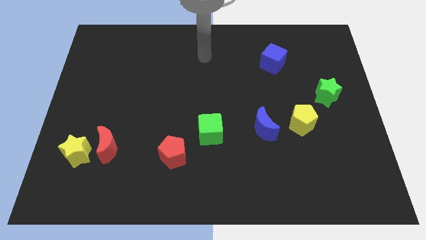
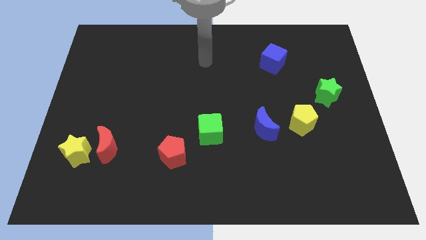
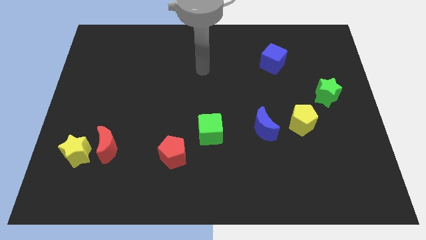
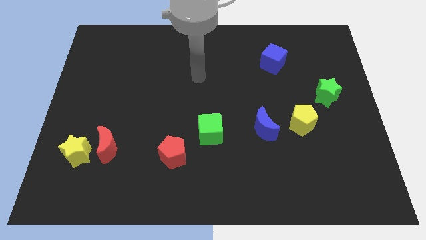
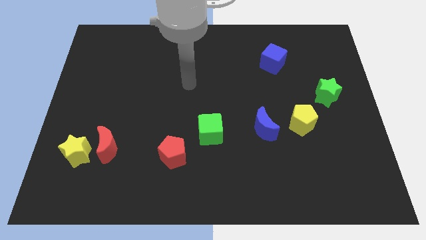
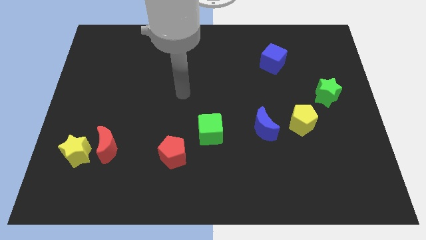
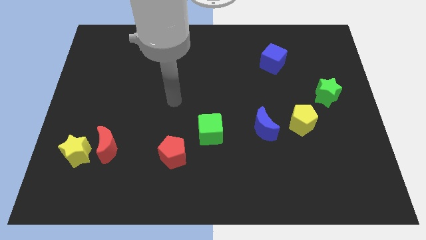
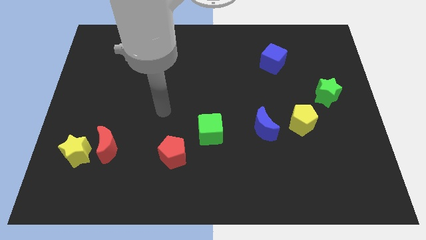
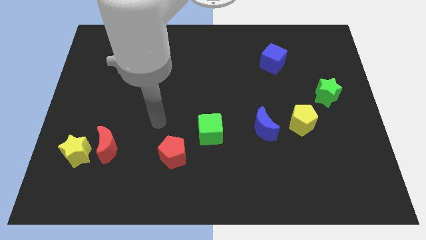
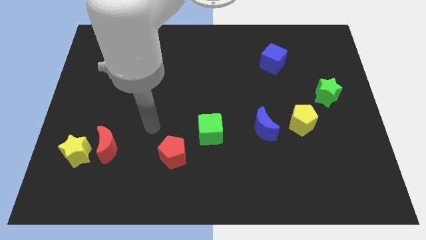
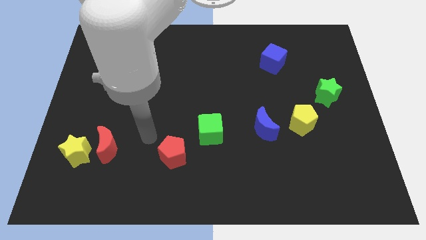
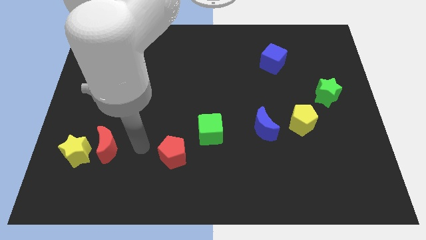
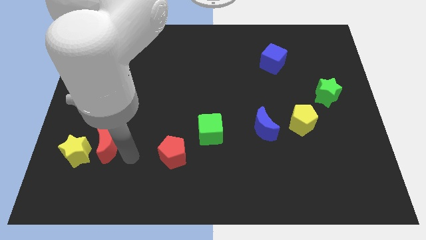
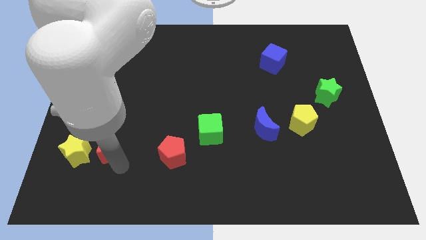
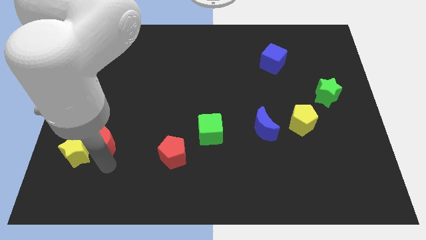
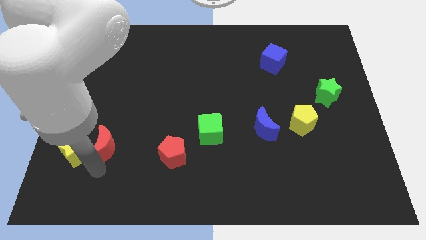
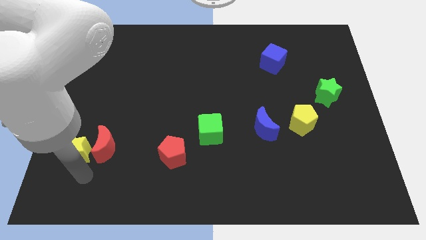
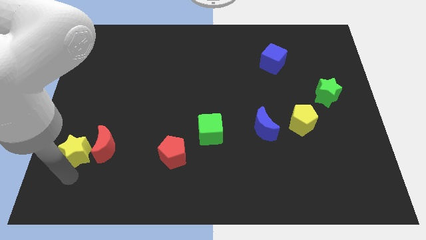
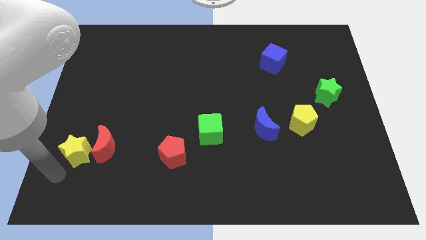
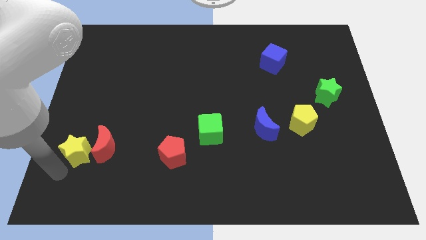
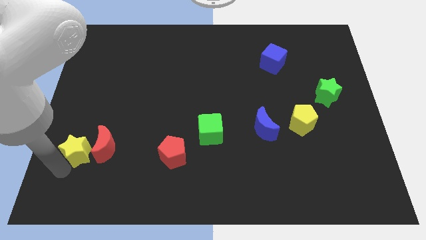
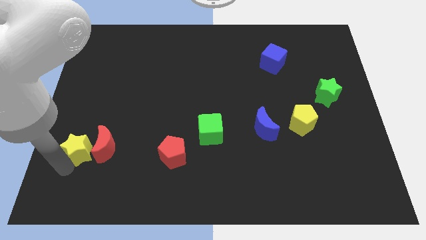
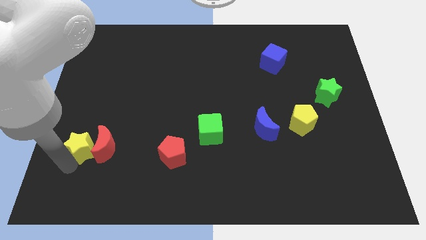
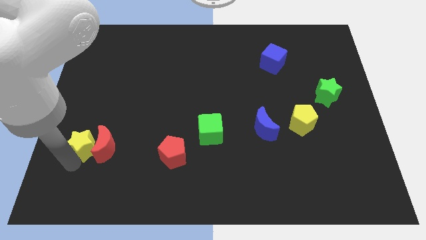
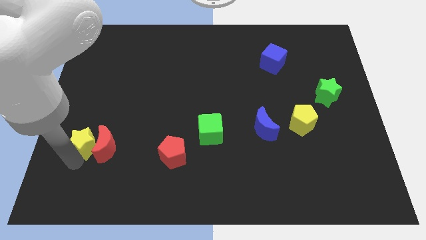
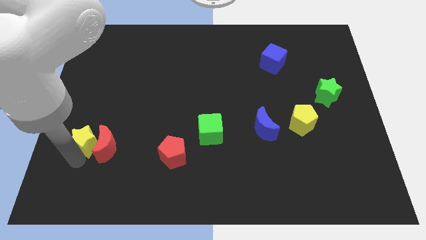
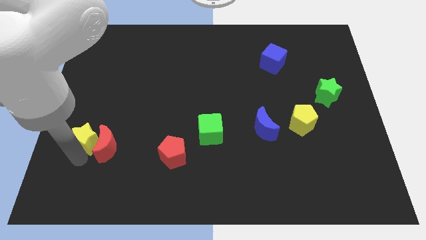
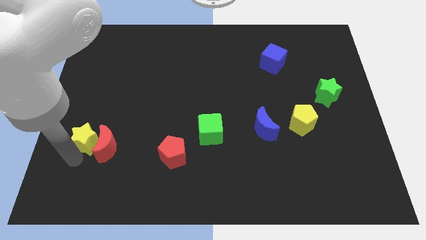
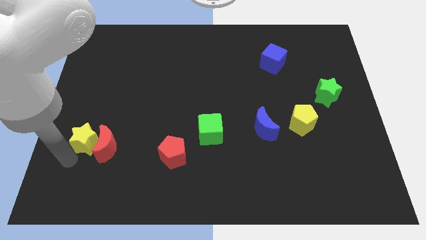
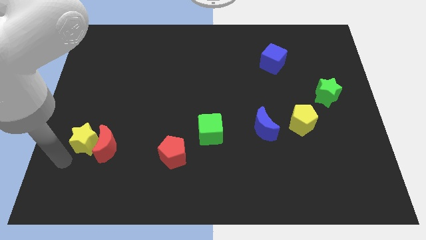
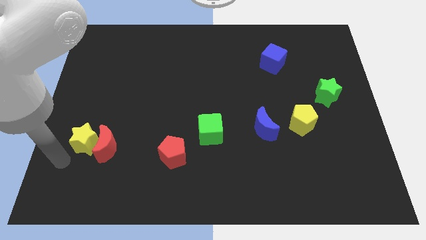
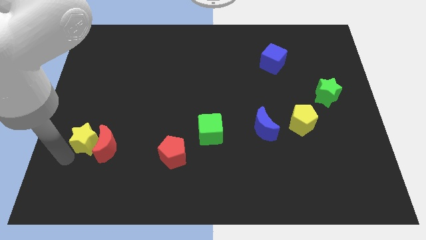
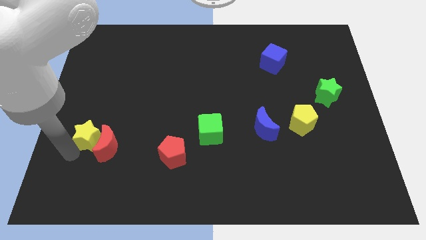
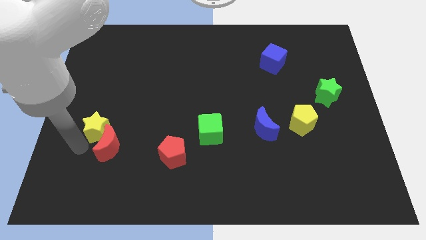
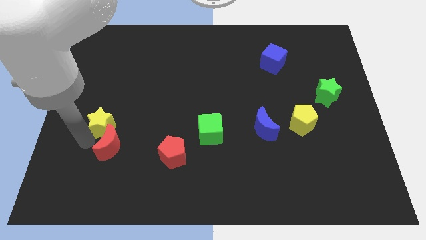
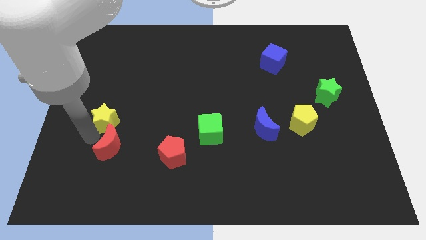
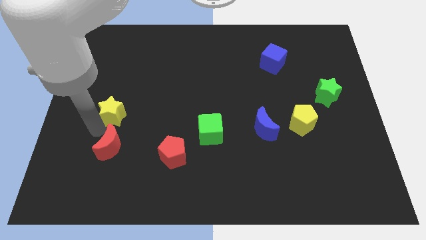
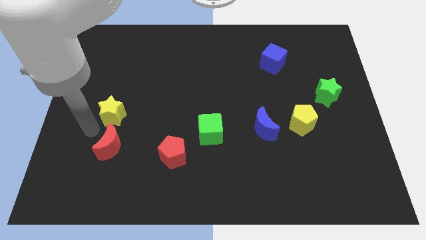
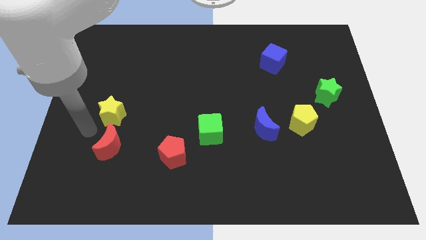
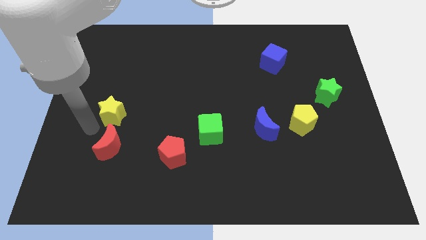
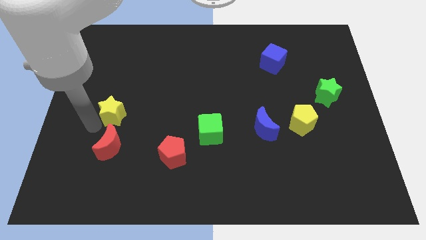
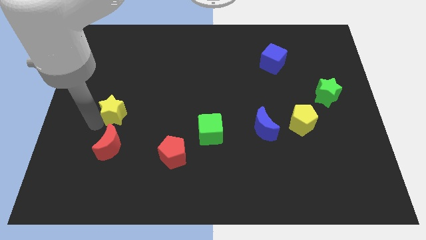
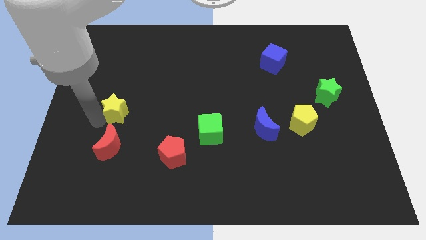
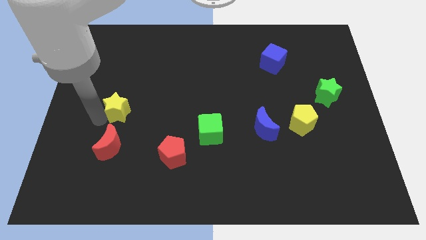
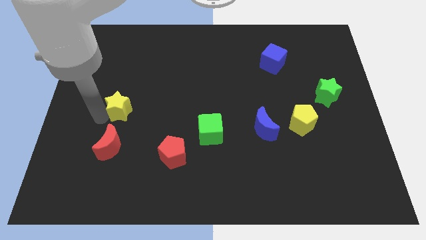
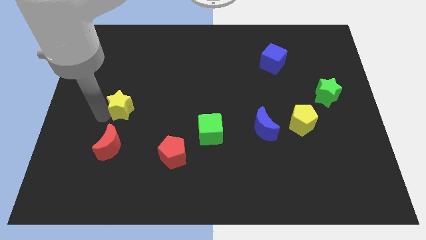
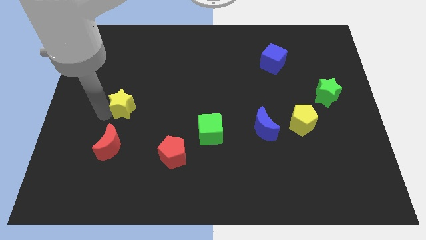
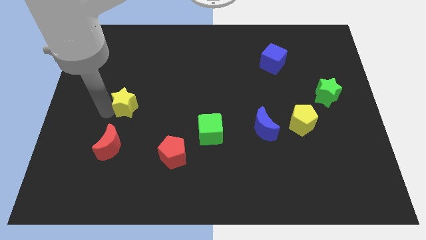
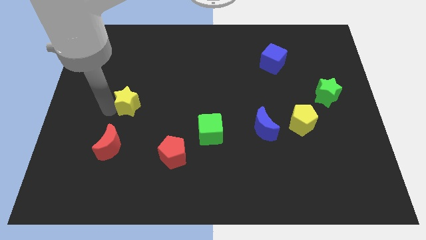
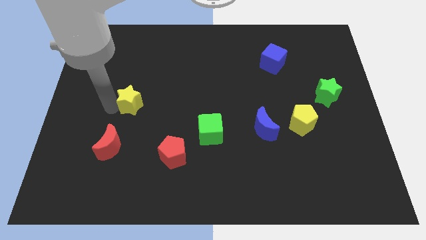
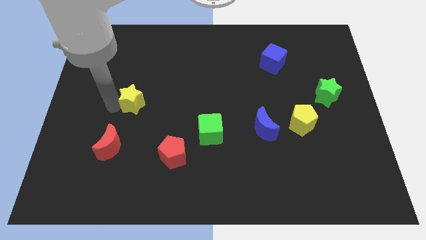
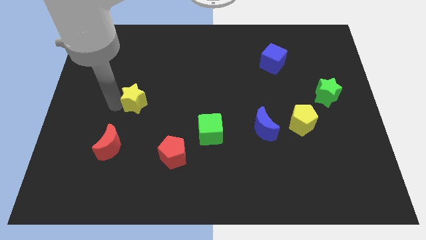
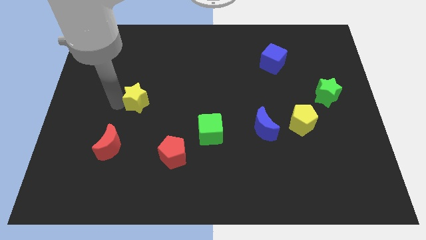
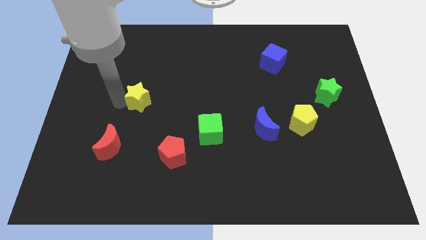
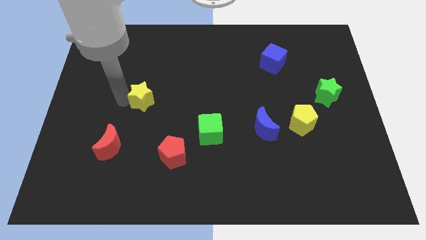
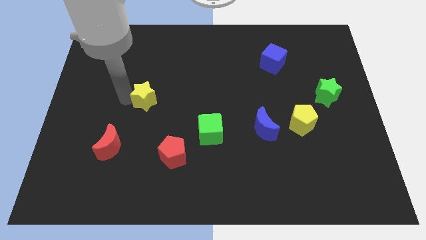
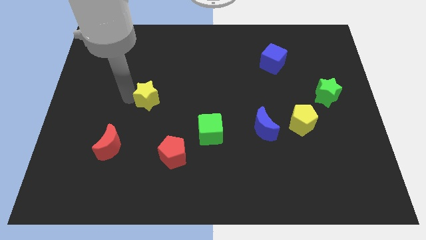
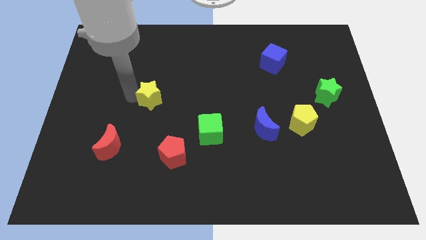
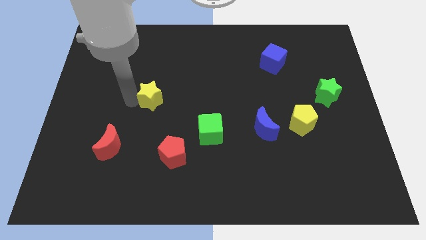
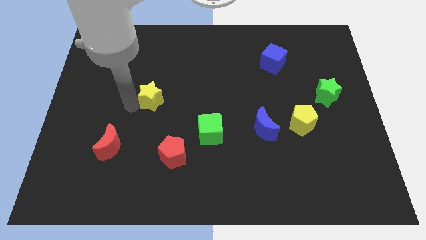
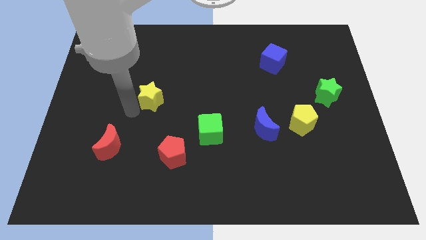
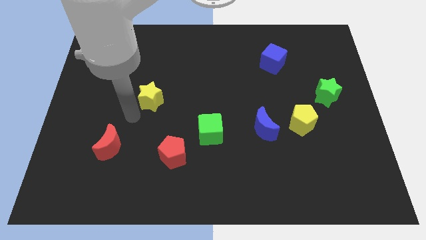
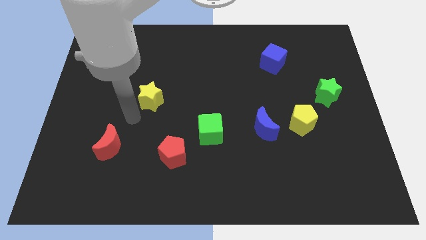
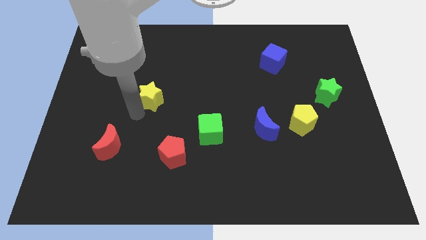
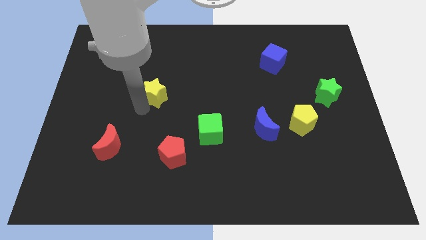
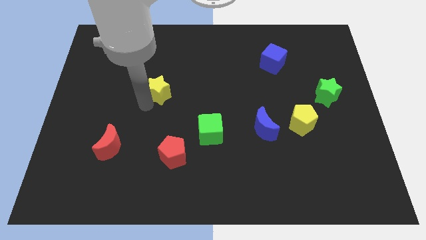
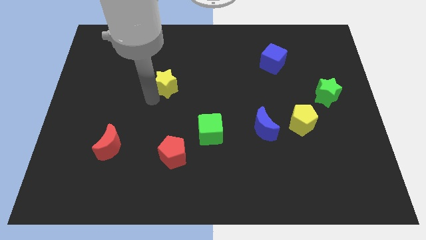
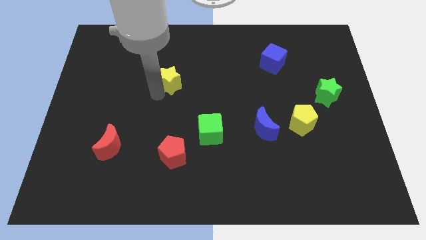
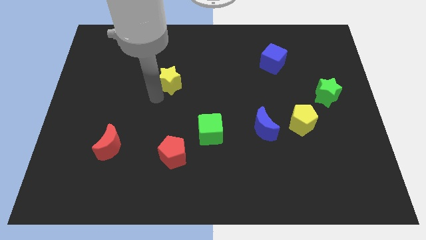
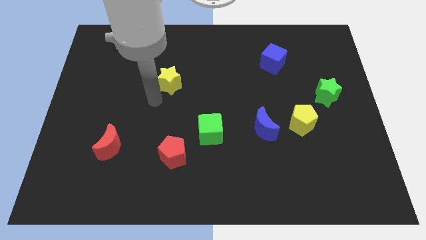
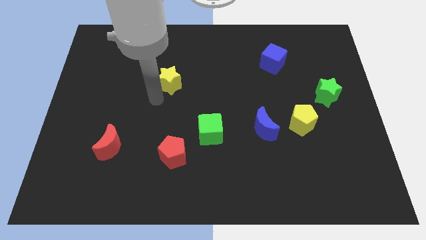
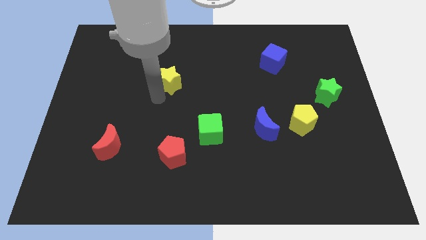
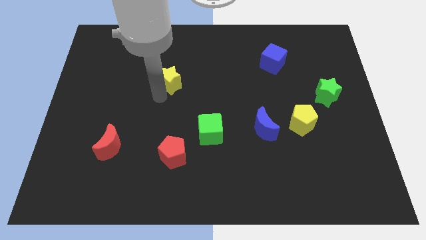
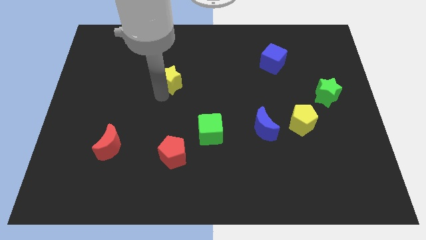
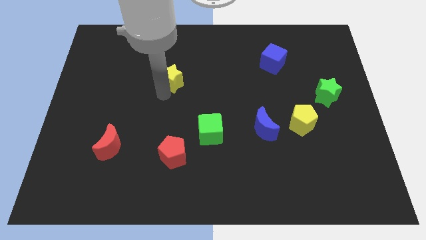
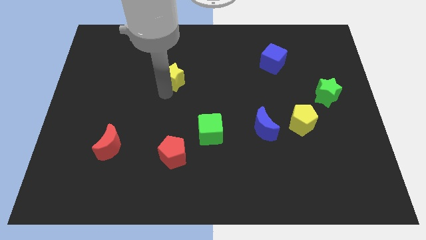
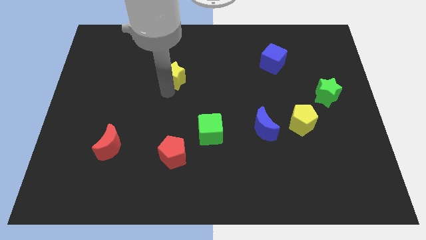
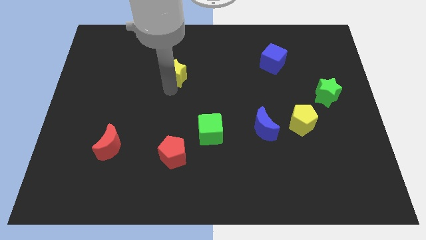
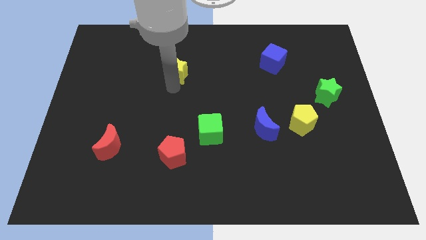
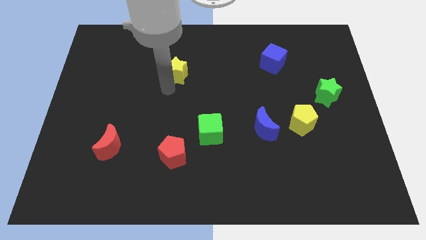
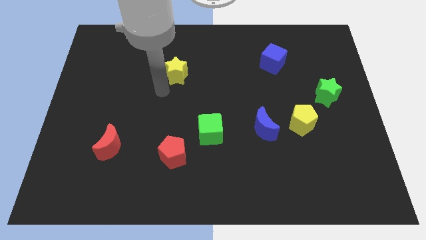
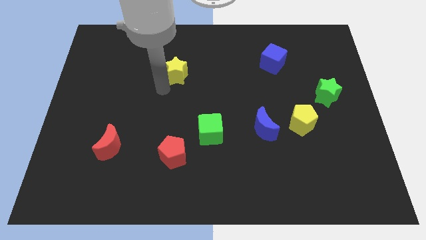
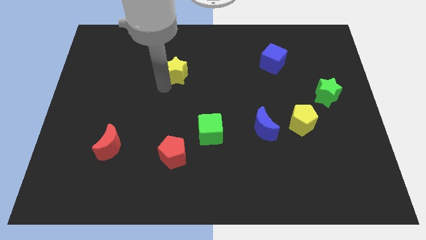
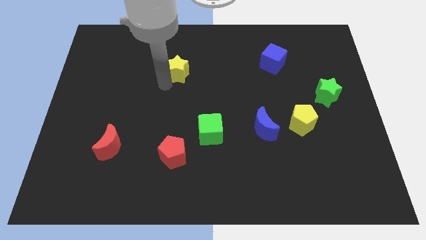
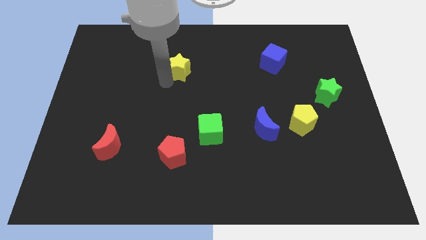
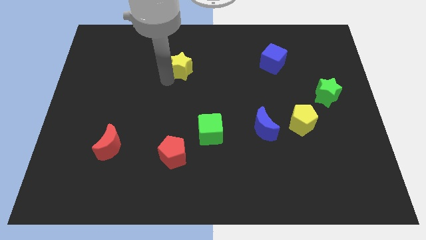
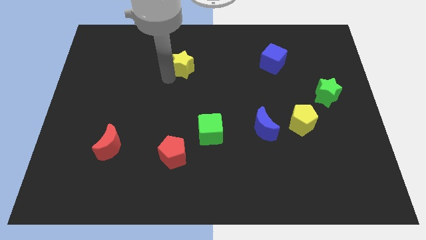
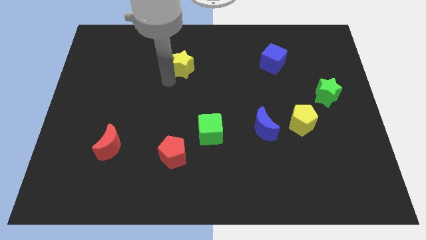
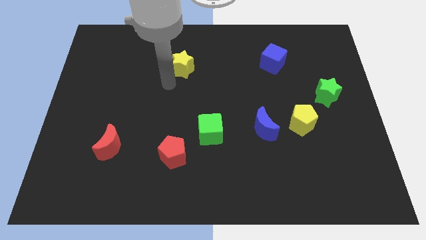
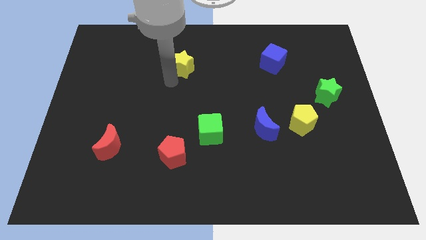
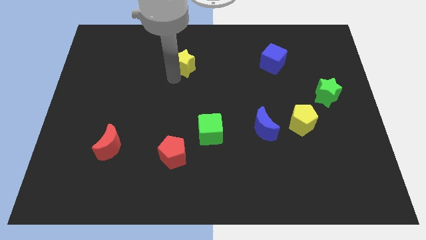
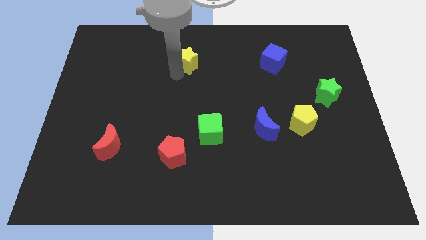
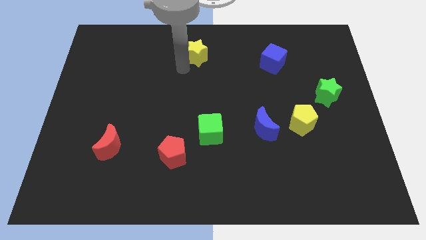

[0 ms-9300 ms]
move the yellow star to the top side
